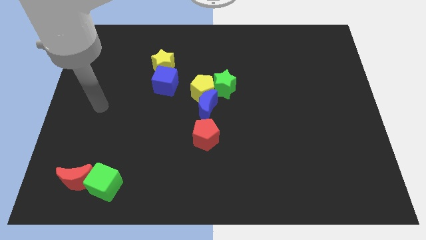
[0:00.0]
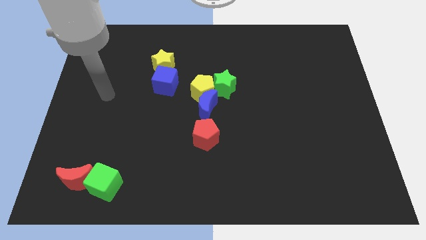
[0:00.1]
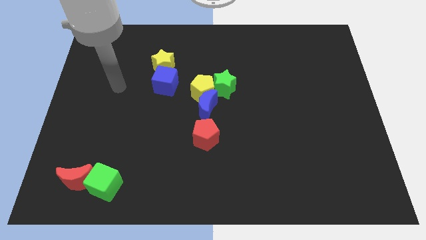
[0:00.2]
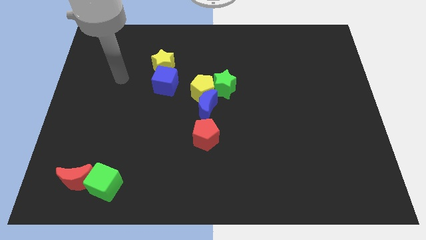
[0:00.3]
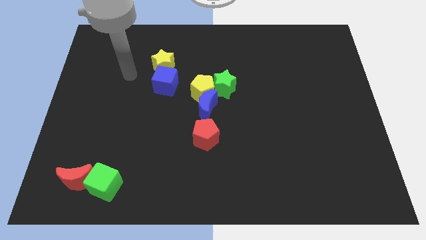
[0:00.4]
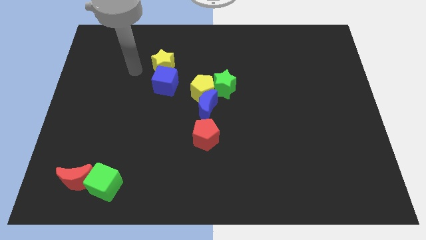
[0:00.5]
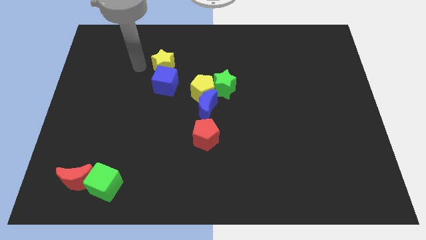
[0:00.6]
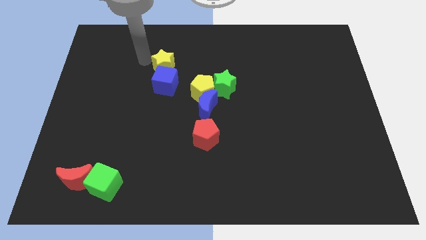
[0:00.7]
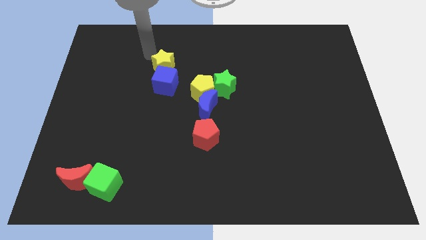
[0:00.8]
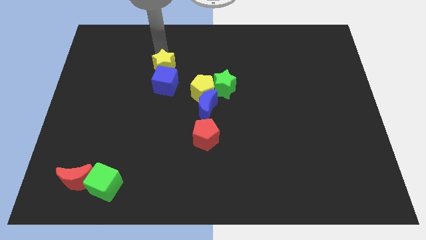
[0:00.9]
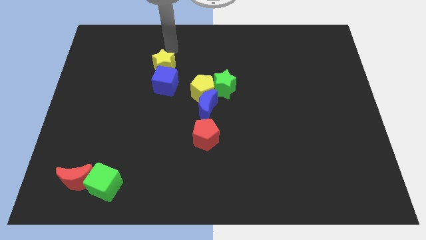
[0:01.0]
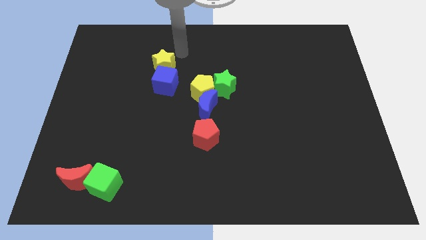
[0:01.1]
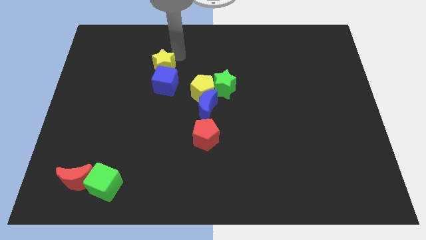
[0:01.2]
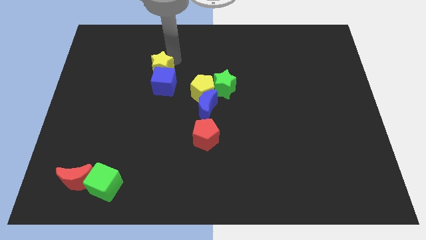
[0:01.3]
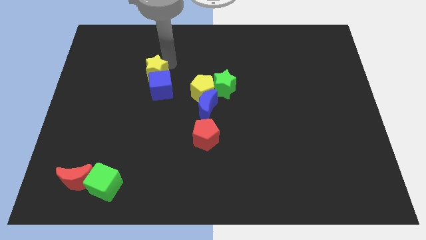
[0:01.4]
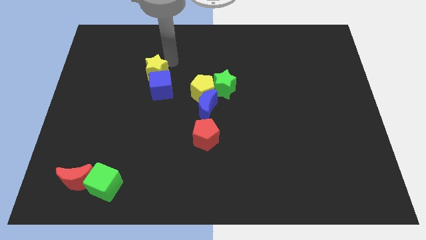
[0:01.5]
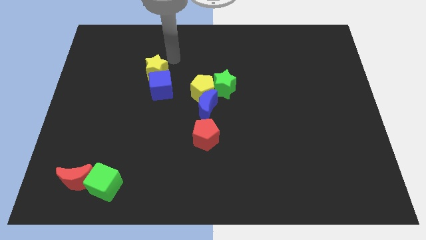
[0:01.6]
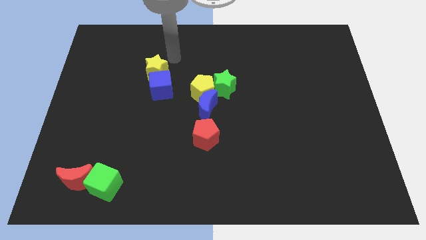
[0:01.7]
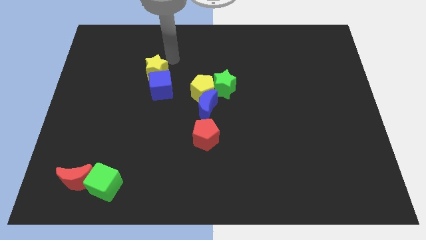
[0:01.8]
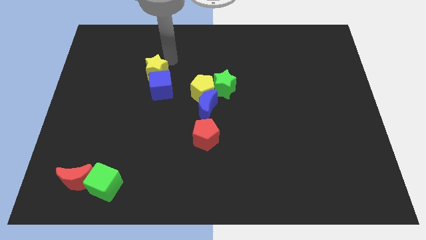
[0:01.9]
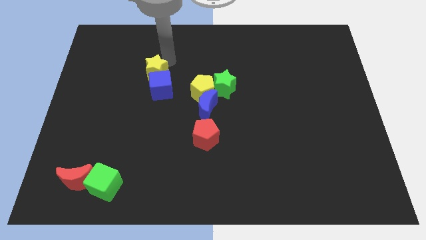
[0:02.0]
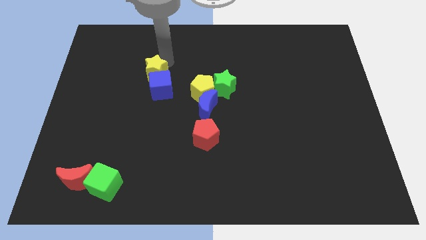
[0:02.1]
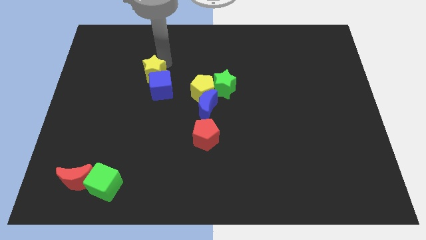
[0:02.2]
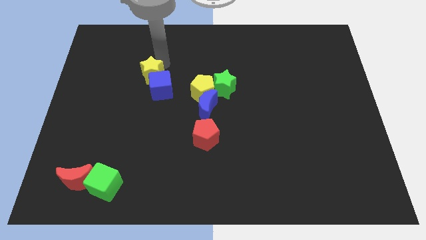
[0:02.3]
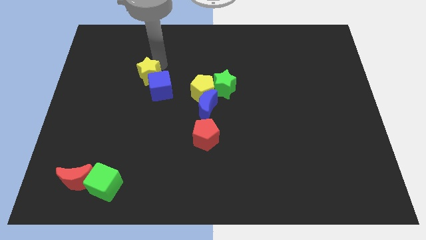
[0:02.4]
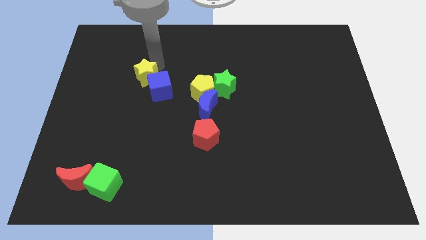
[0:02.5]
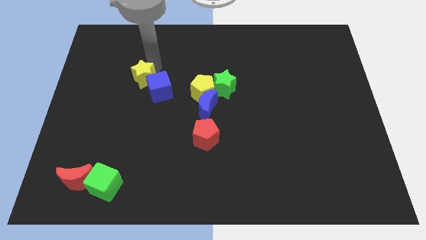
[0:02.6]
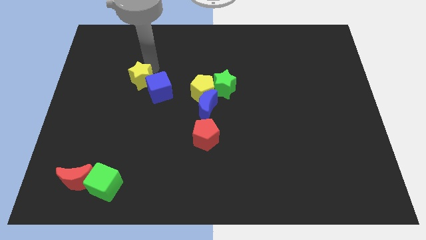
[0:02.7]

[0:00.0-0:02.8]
slide the yellow star a little bit diagonally downwards and left

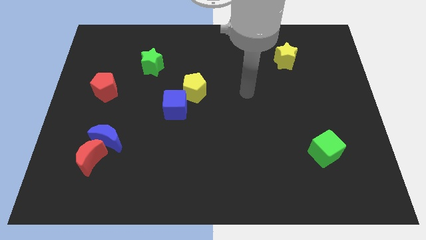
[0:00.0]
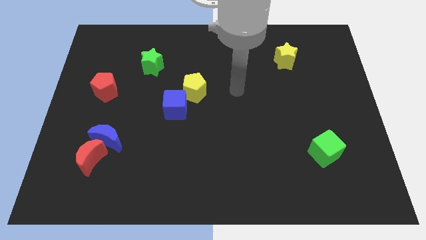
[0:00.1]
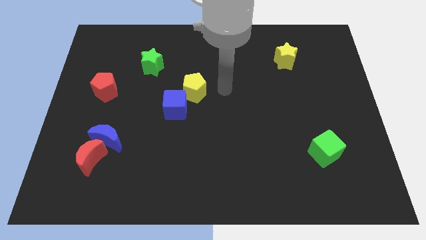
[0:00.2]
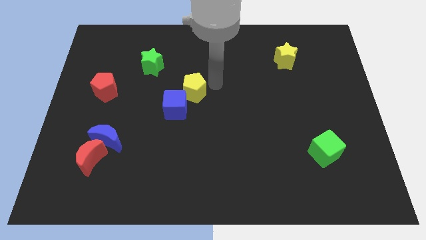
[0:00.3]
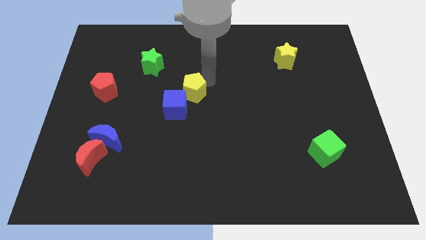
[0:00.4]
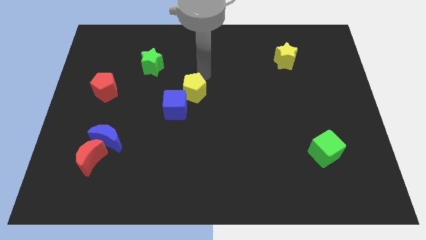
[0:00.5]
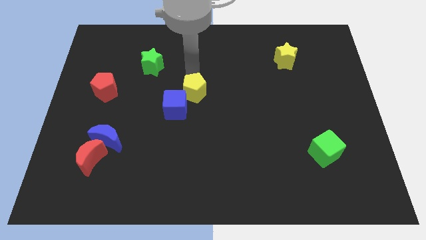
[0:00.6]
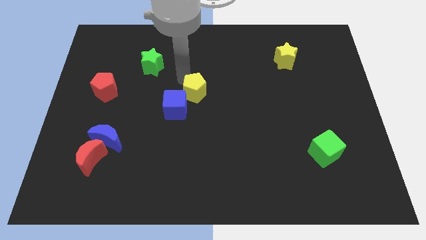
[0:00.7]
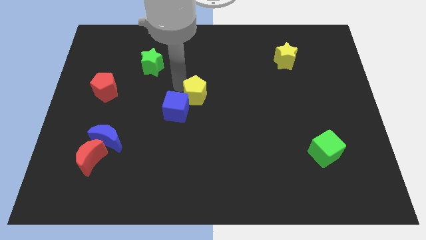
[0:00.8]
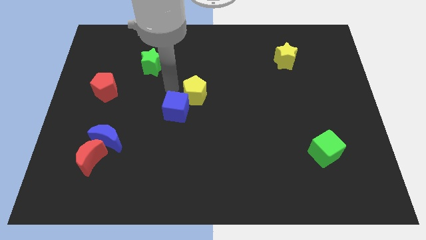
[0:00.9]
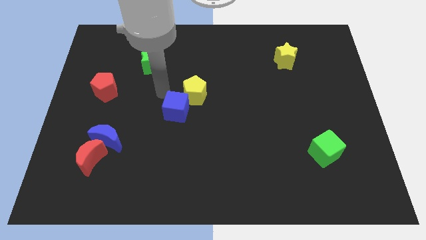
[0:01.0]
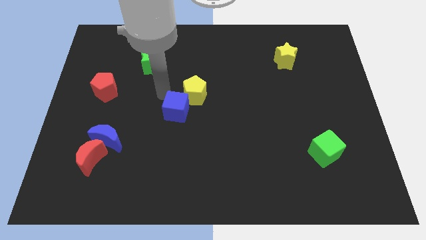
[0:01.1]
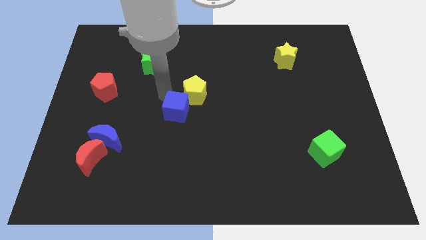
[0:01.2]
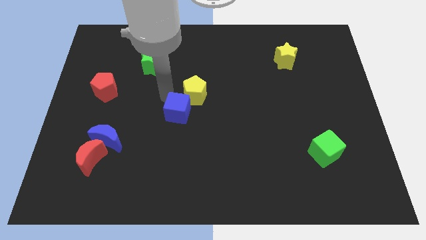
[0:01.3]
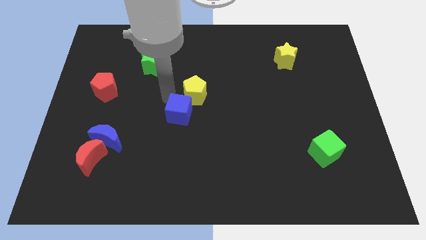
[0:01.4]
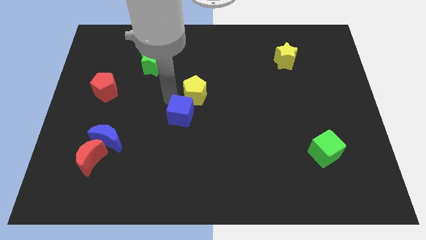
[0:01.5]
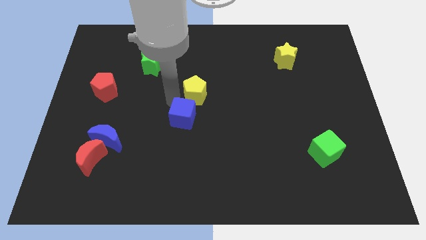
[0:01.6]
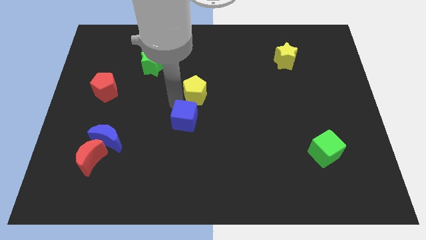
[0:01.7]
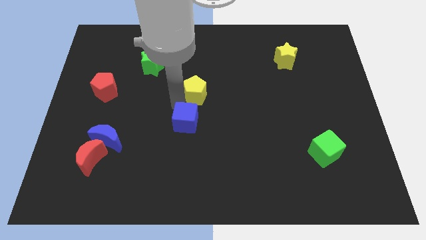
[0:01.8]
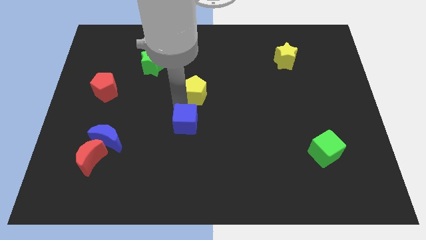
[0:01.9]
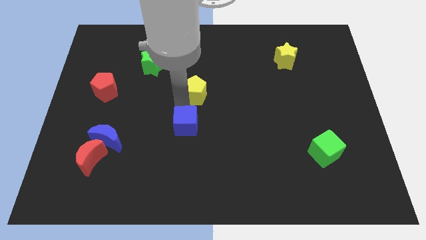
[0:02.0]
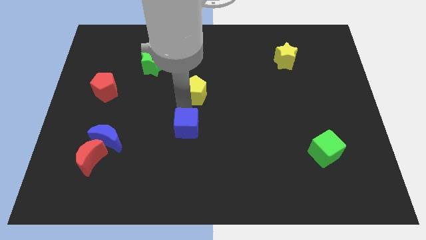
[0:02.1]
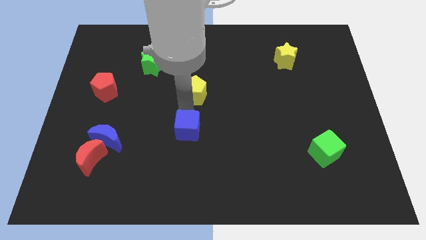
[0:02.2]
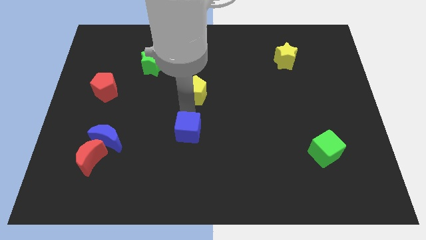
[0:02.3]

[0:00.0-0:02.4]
slide the blue cube downwards and then right somewhat

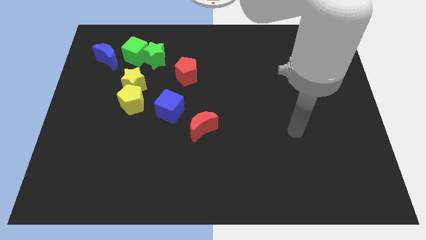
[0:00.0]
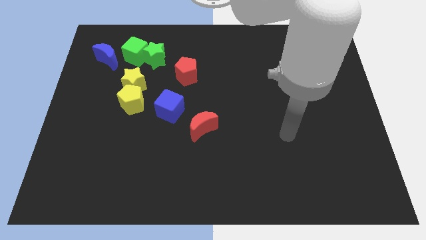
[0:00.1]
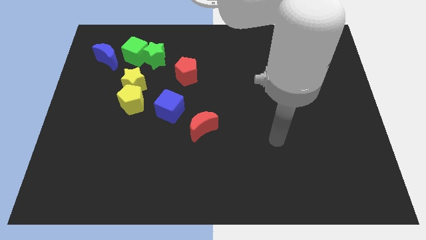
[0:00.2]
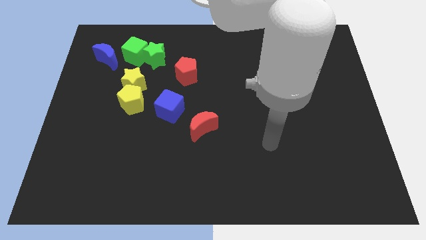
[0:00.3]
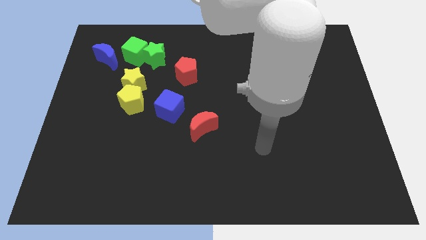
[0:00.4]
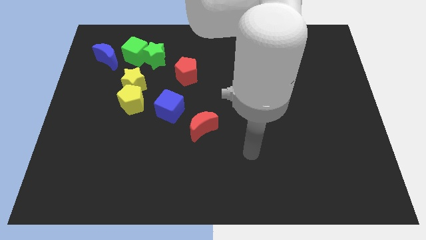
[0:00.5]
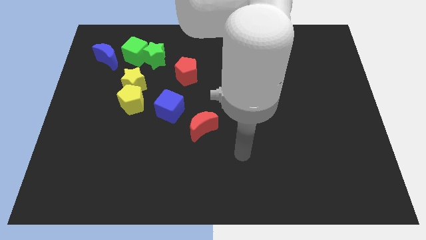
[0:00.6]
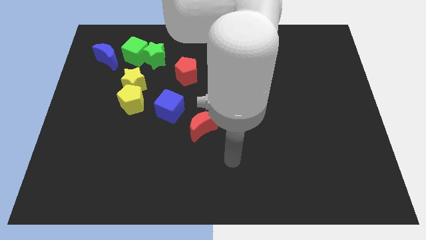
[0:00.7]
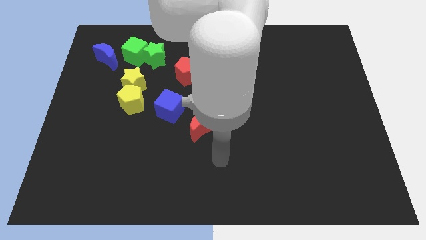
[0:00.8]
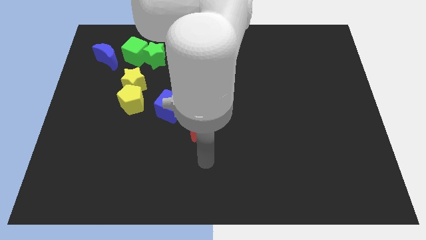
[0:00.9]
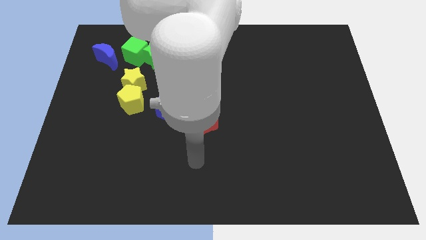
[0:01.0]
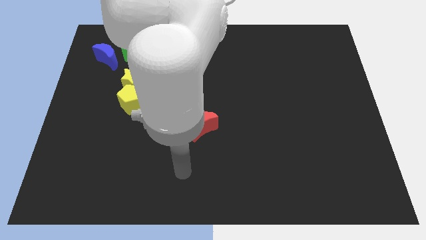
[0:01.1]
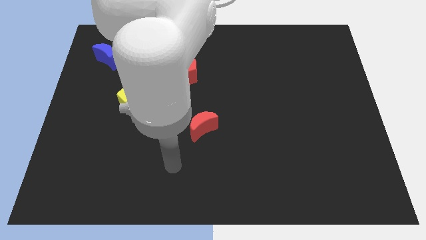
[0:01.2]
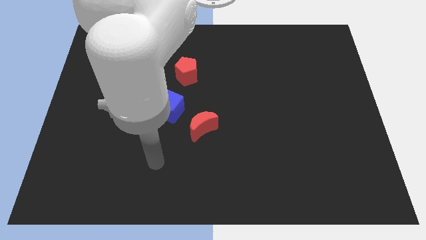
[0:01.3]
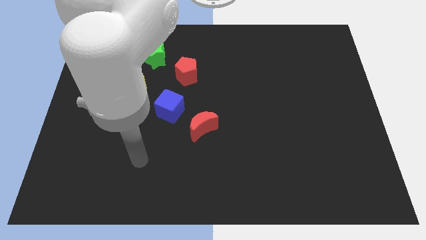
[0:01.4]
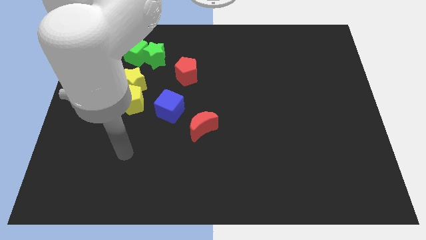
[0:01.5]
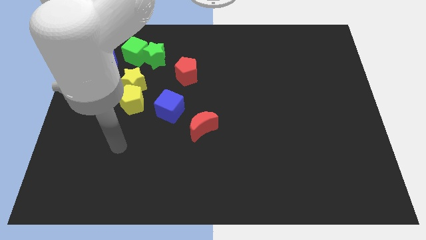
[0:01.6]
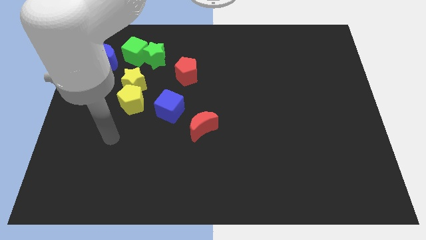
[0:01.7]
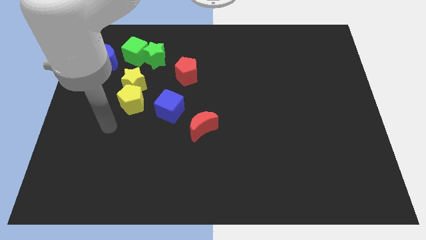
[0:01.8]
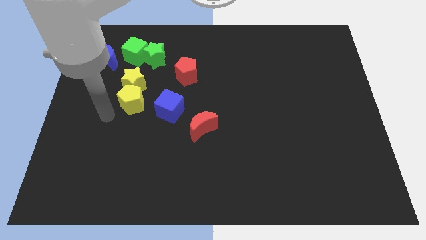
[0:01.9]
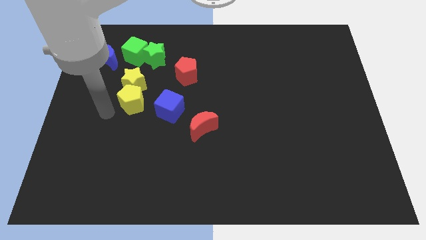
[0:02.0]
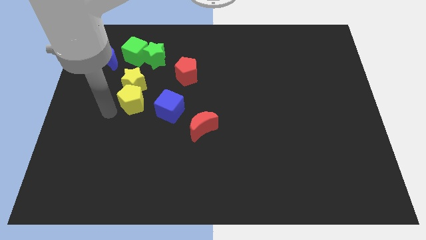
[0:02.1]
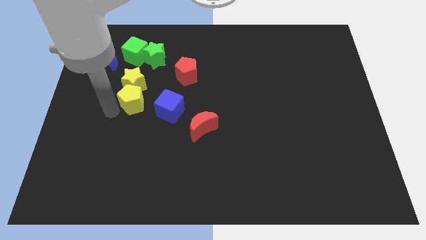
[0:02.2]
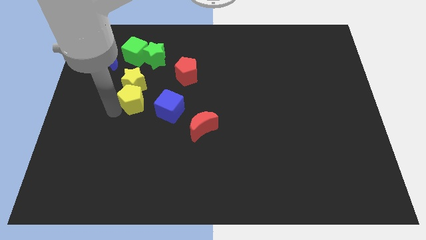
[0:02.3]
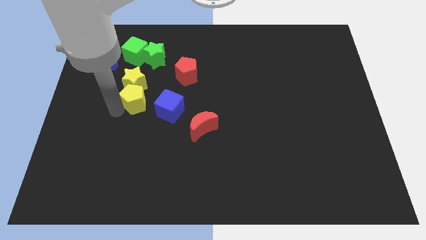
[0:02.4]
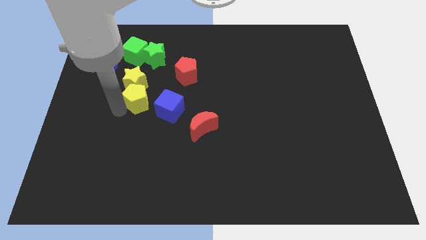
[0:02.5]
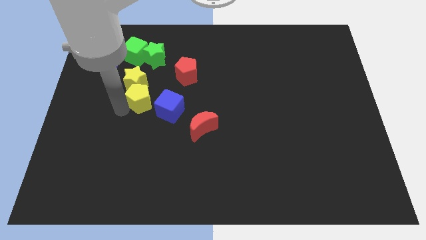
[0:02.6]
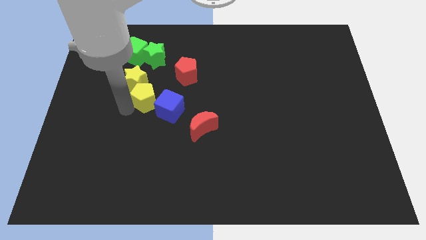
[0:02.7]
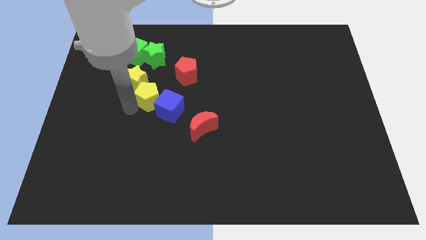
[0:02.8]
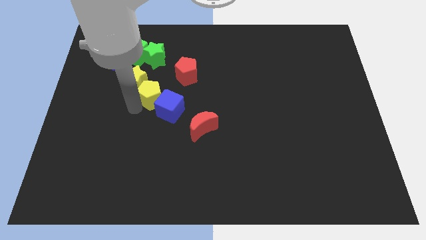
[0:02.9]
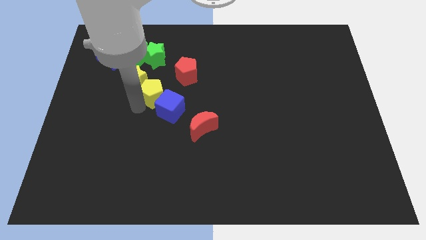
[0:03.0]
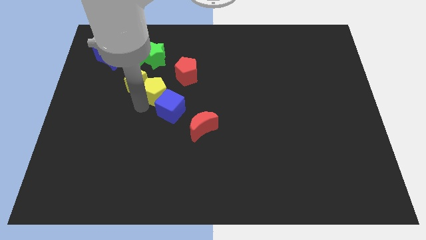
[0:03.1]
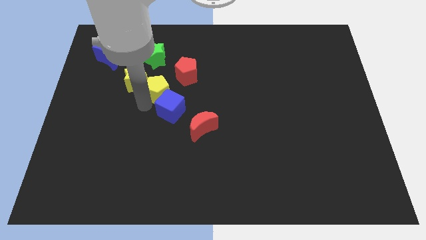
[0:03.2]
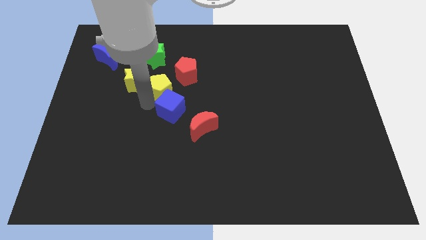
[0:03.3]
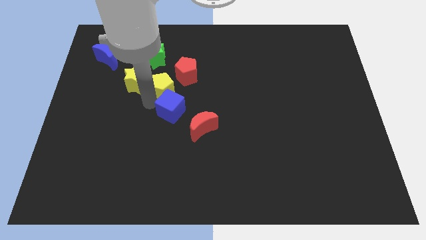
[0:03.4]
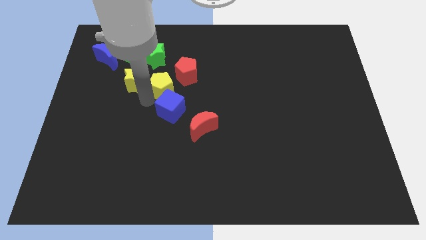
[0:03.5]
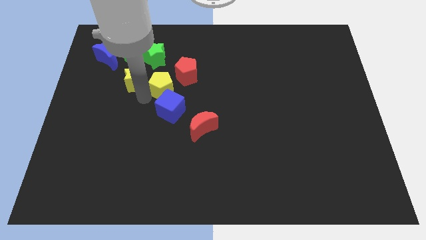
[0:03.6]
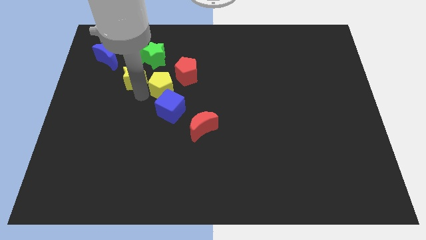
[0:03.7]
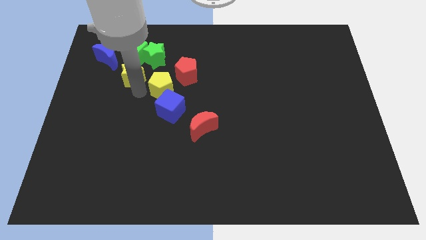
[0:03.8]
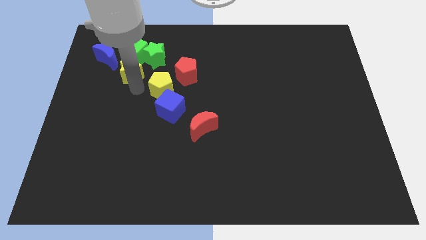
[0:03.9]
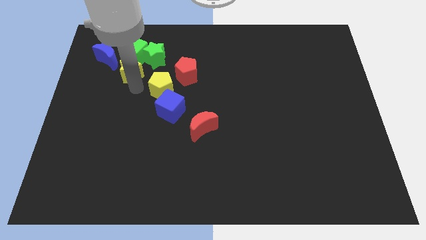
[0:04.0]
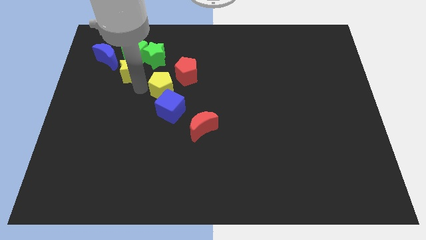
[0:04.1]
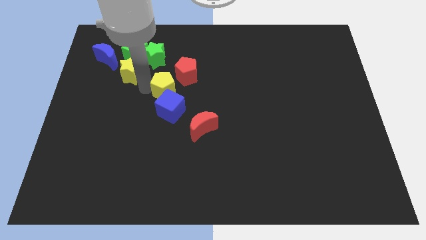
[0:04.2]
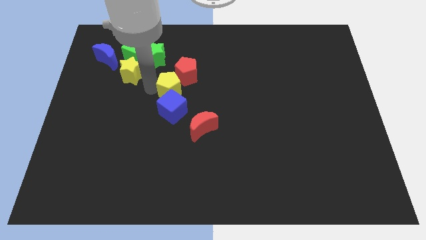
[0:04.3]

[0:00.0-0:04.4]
move the yellow pentagon slightly to the right
